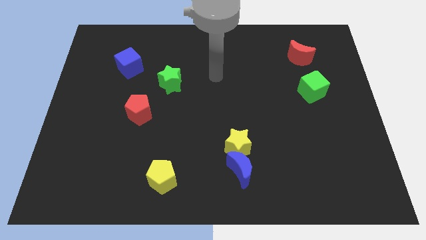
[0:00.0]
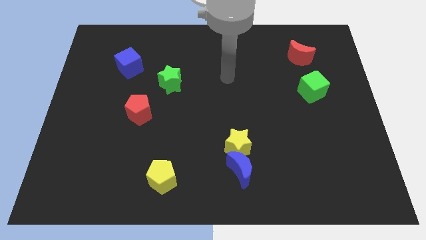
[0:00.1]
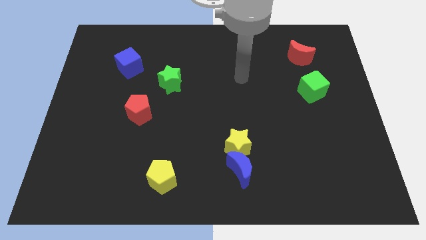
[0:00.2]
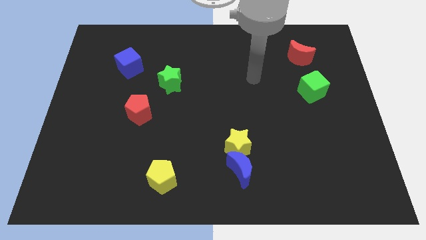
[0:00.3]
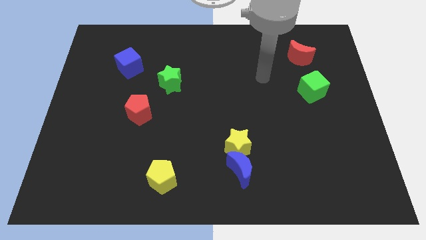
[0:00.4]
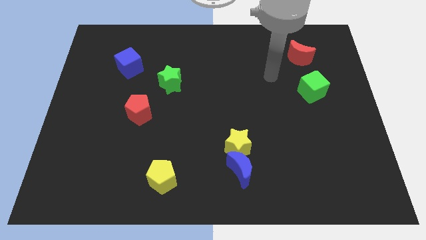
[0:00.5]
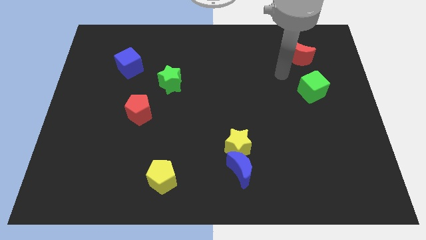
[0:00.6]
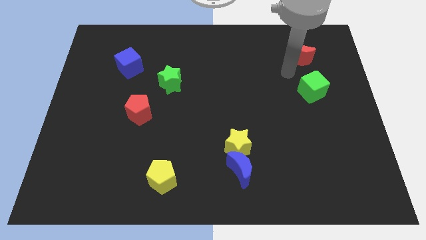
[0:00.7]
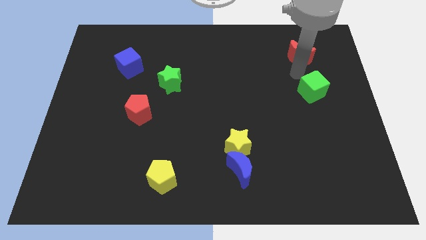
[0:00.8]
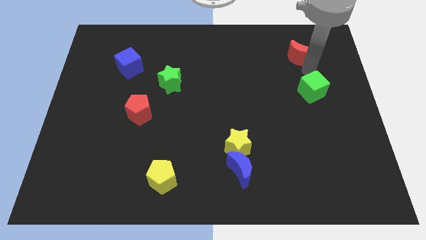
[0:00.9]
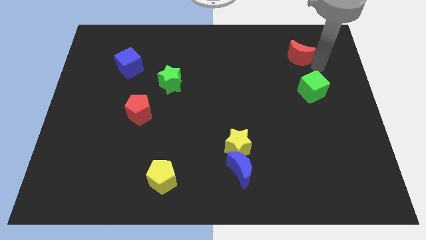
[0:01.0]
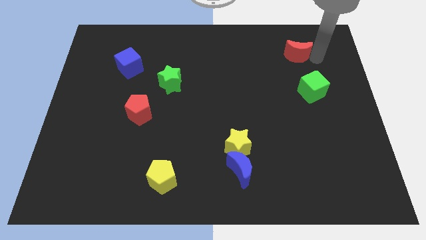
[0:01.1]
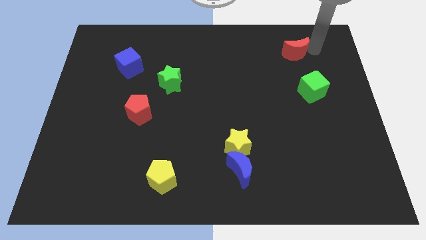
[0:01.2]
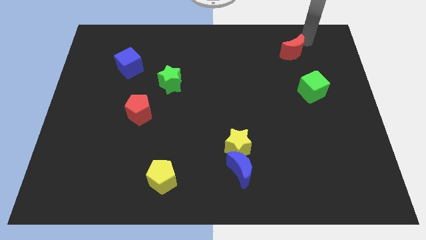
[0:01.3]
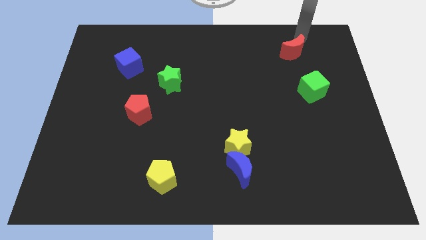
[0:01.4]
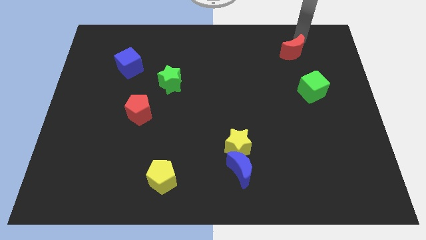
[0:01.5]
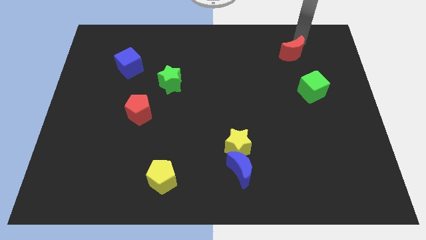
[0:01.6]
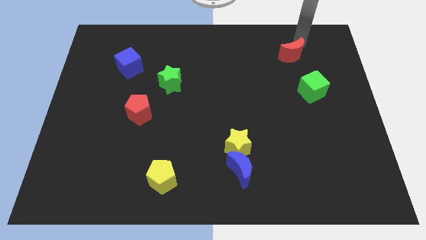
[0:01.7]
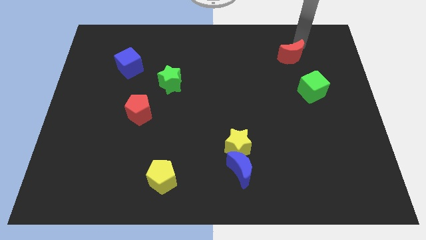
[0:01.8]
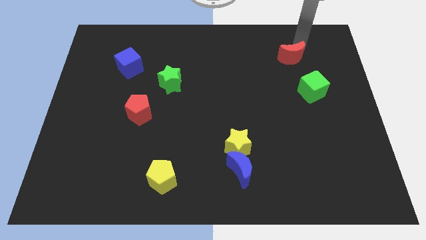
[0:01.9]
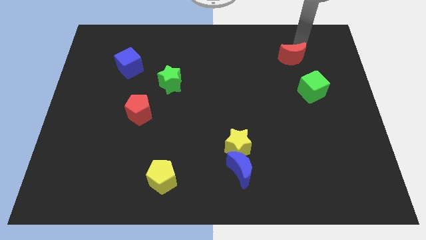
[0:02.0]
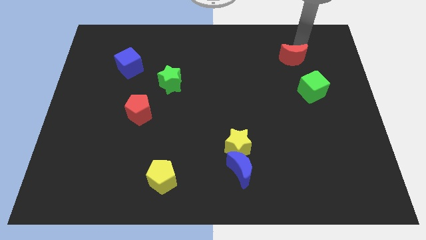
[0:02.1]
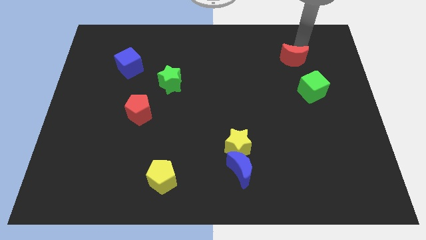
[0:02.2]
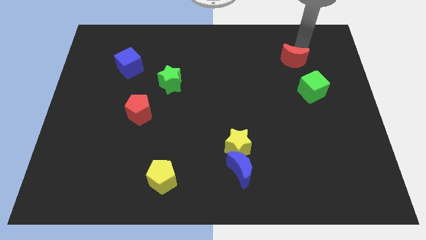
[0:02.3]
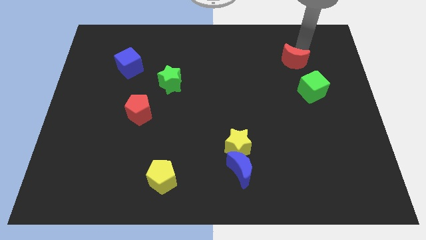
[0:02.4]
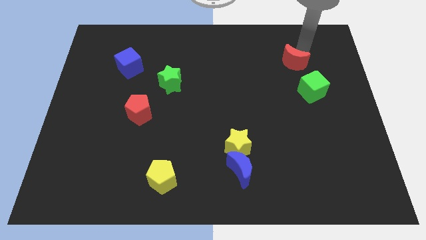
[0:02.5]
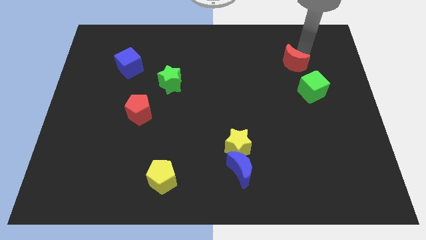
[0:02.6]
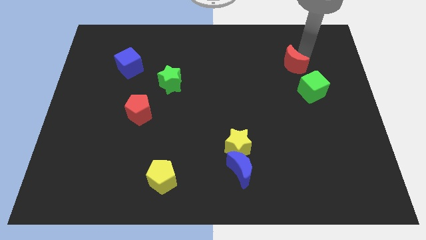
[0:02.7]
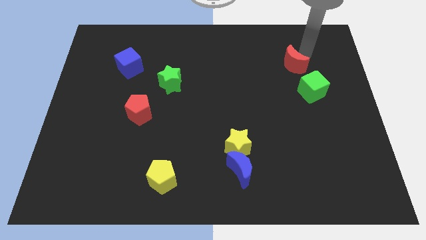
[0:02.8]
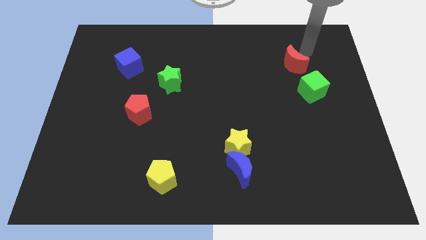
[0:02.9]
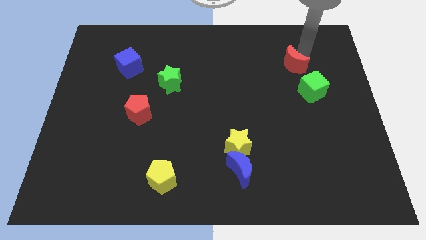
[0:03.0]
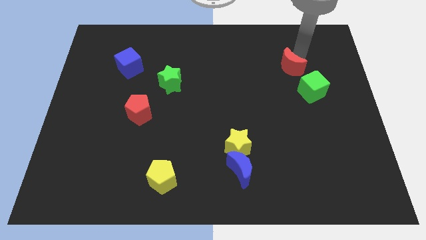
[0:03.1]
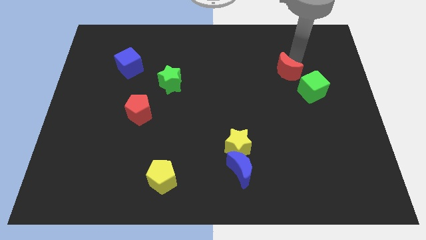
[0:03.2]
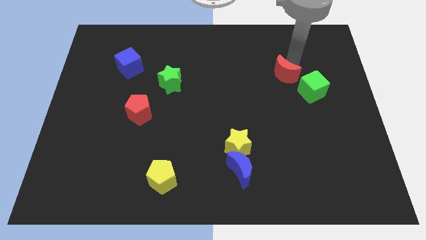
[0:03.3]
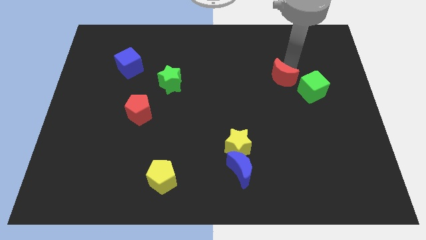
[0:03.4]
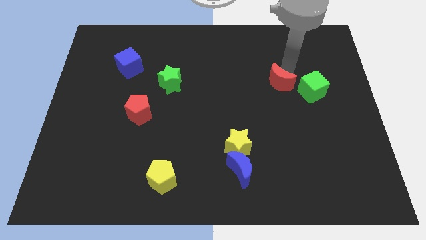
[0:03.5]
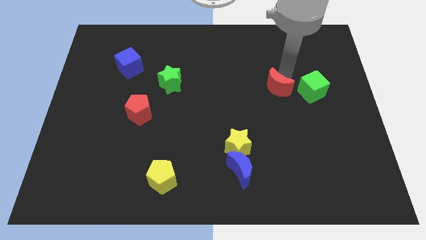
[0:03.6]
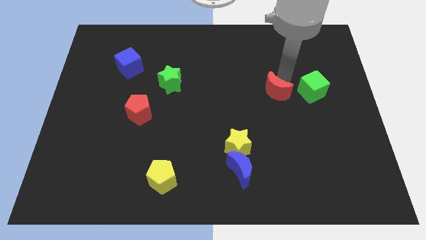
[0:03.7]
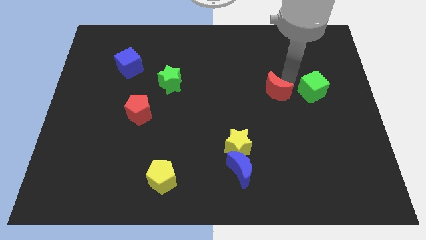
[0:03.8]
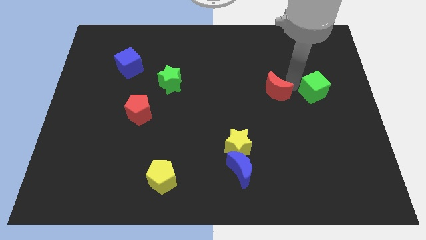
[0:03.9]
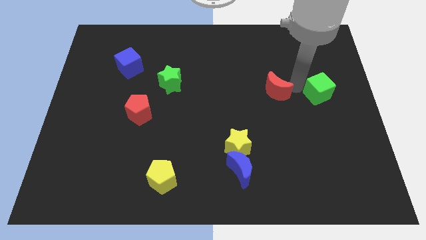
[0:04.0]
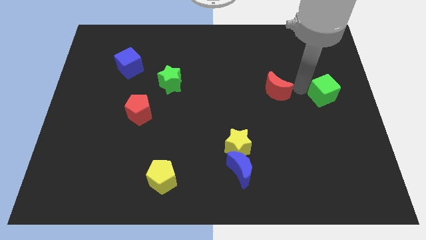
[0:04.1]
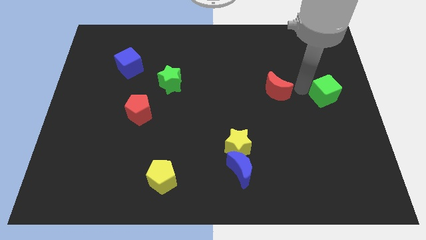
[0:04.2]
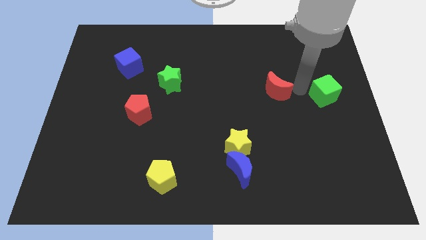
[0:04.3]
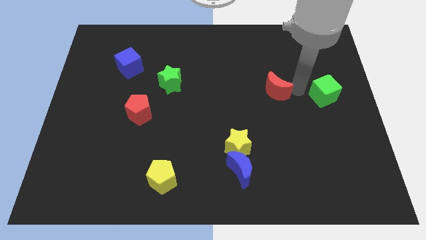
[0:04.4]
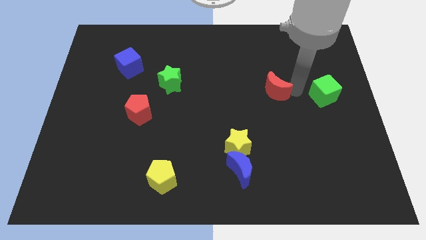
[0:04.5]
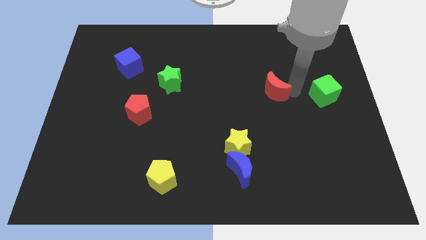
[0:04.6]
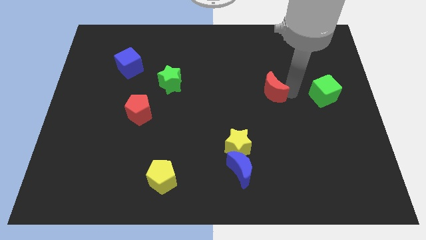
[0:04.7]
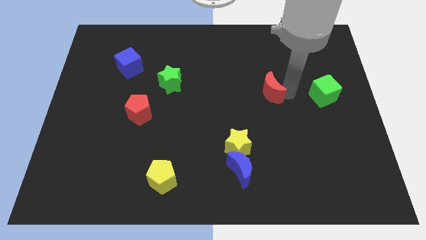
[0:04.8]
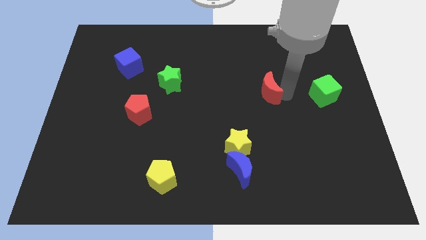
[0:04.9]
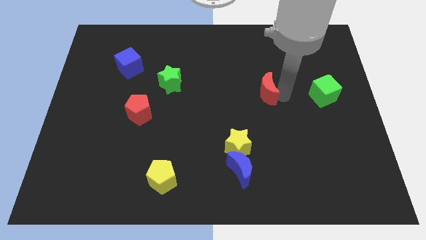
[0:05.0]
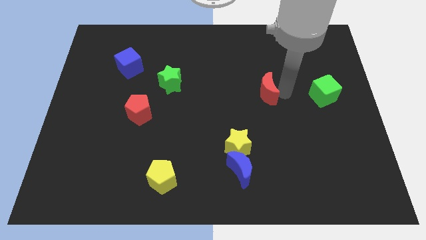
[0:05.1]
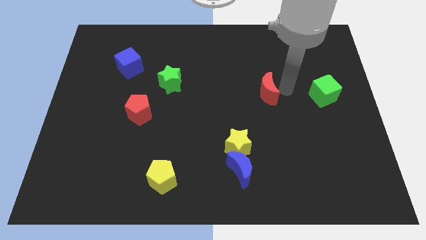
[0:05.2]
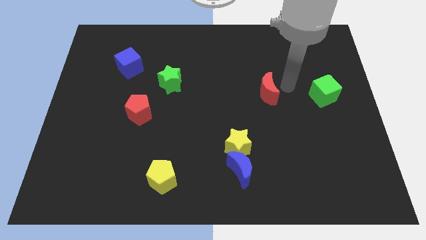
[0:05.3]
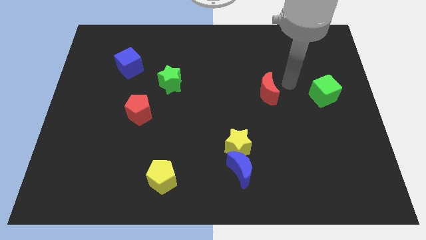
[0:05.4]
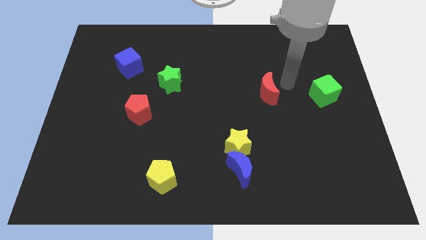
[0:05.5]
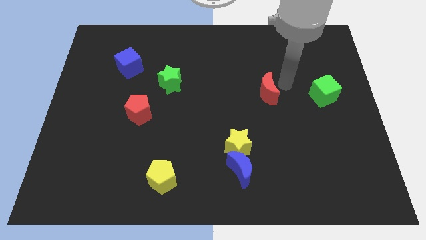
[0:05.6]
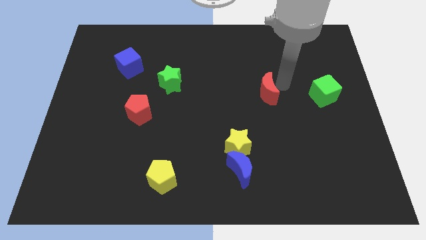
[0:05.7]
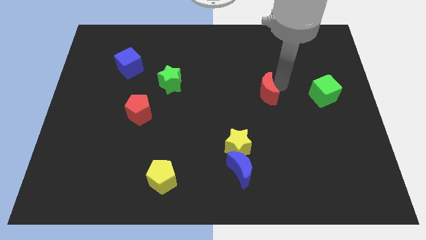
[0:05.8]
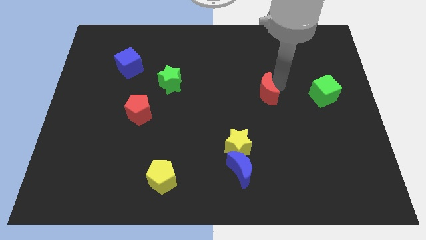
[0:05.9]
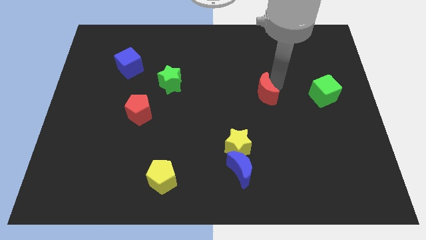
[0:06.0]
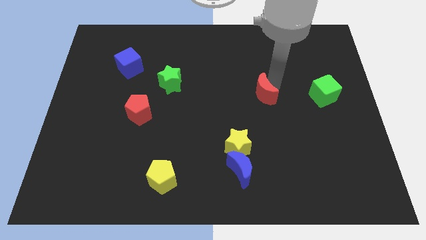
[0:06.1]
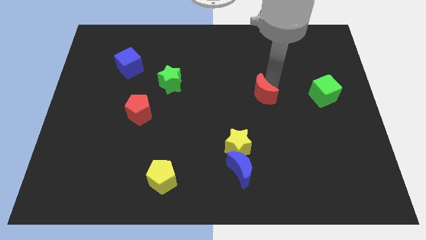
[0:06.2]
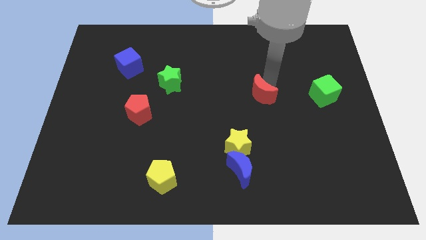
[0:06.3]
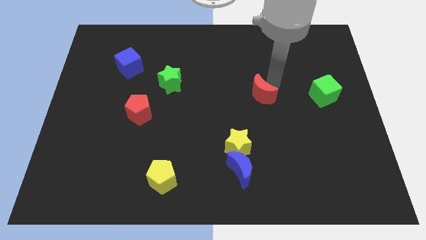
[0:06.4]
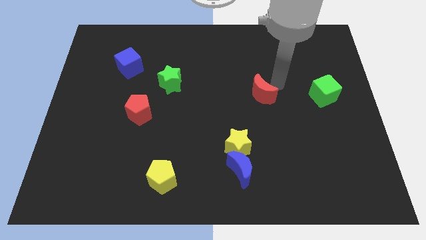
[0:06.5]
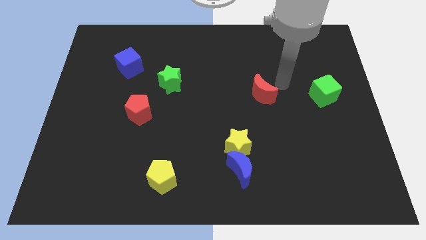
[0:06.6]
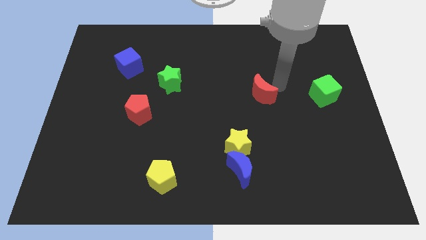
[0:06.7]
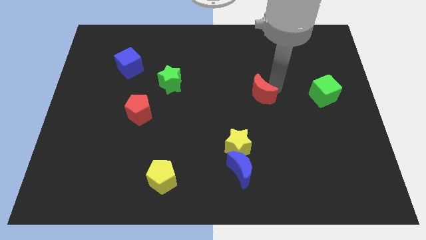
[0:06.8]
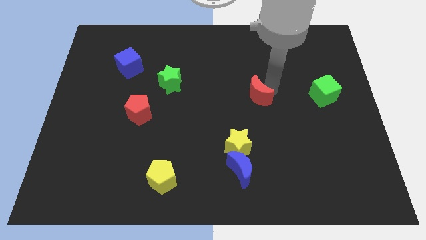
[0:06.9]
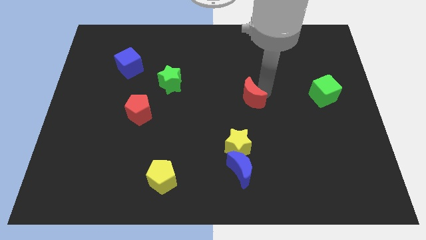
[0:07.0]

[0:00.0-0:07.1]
push the red moon above the yellow star

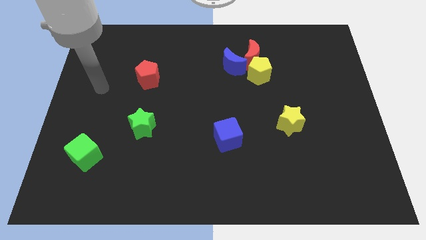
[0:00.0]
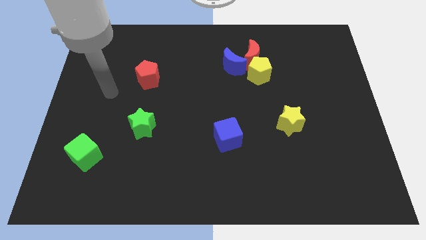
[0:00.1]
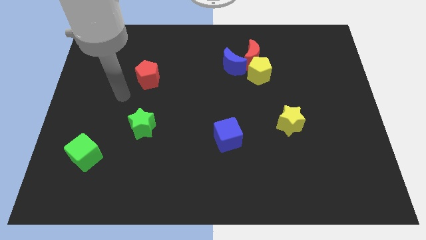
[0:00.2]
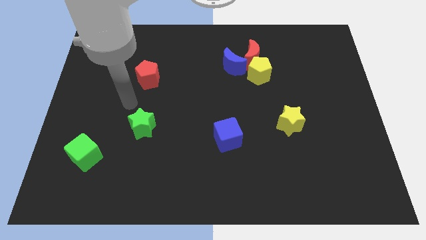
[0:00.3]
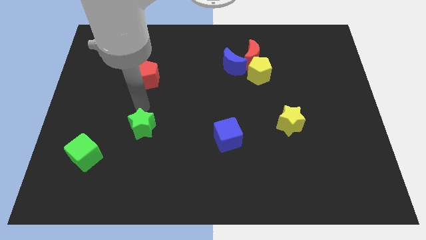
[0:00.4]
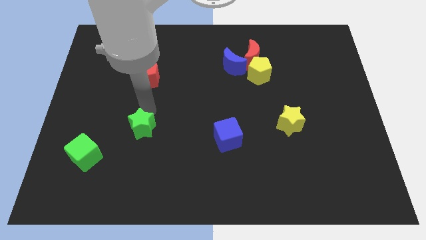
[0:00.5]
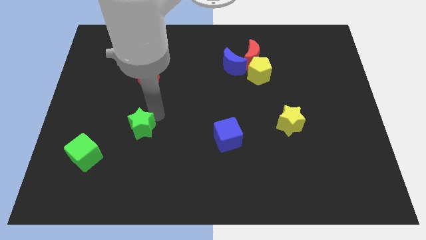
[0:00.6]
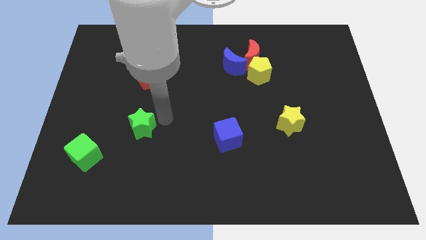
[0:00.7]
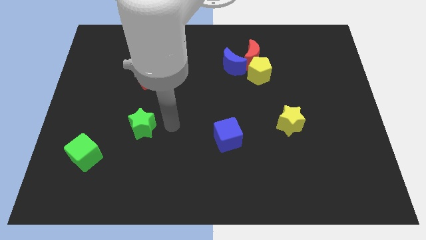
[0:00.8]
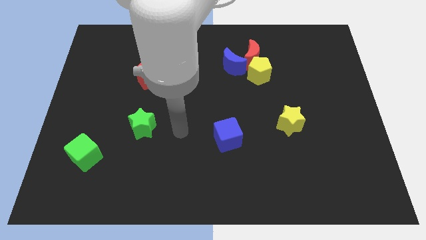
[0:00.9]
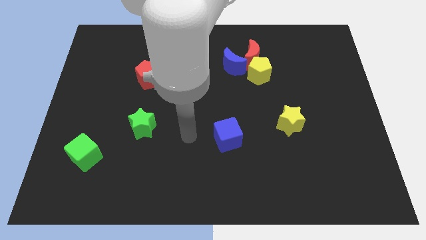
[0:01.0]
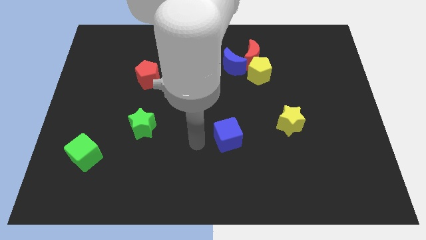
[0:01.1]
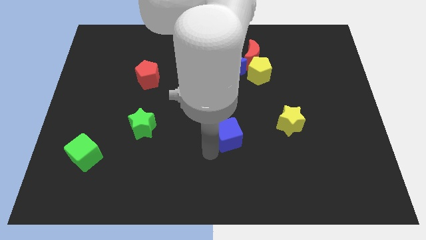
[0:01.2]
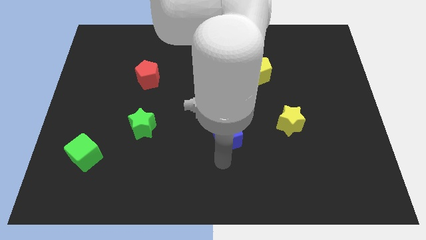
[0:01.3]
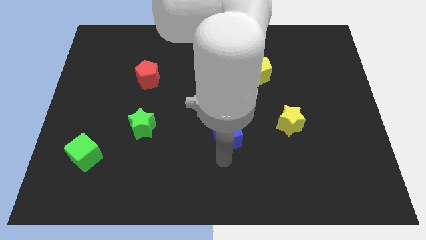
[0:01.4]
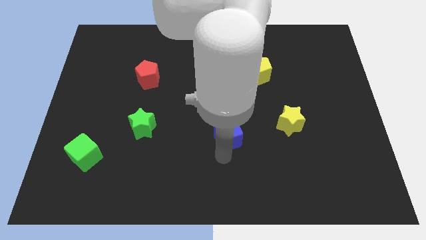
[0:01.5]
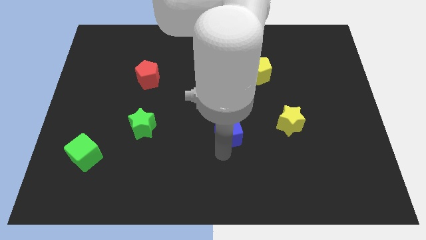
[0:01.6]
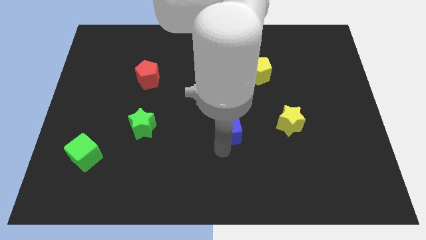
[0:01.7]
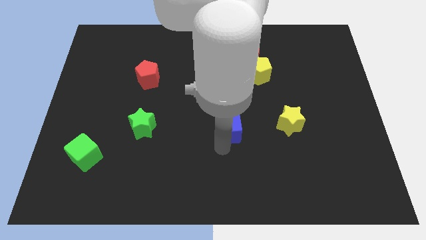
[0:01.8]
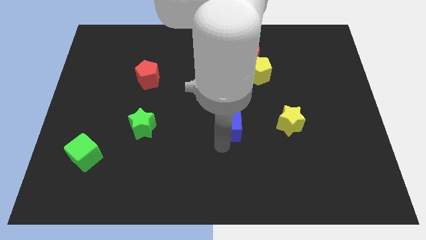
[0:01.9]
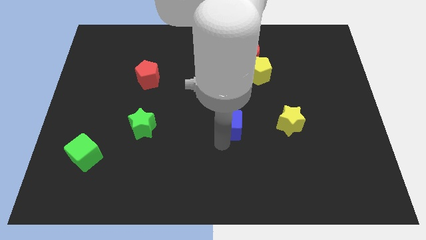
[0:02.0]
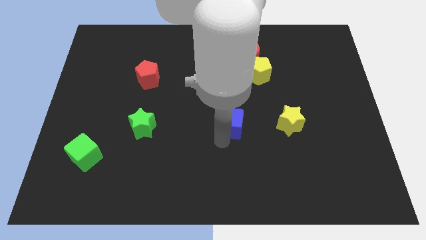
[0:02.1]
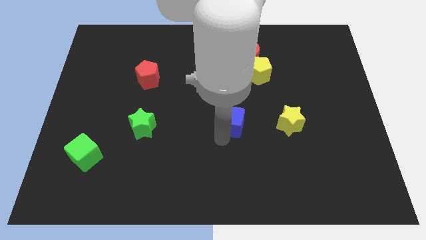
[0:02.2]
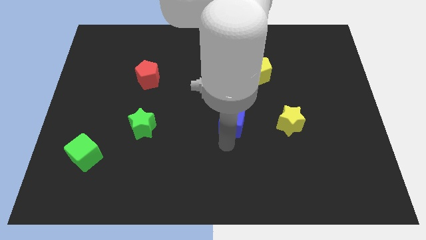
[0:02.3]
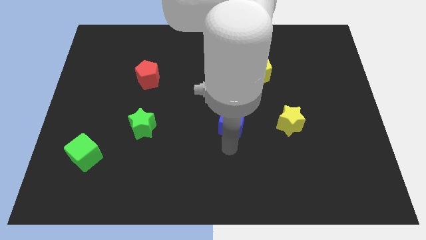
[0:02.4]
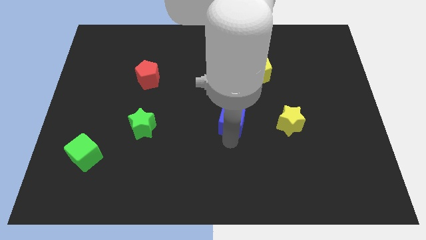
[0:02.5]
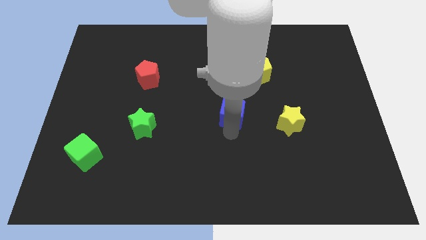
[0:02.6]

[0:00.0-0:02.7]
slide the blue cube to the bottom side of the blue moon
